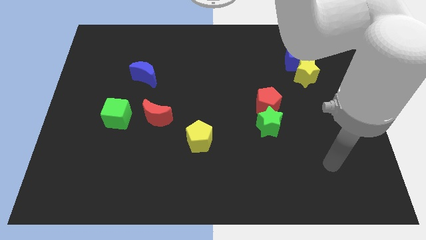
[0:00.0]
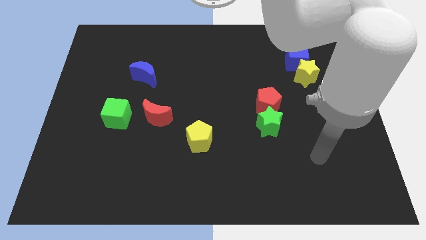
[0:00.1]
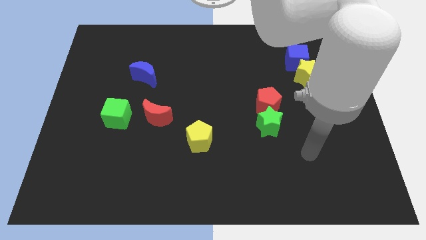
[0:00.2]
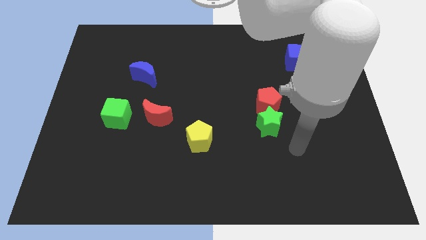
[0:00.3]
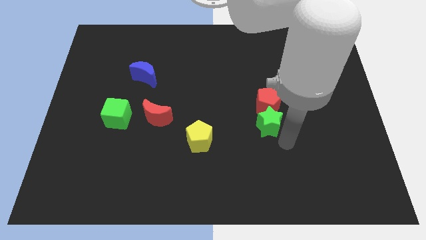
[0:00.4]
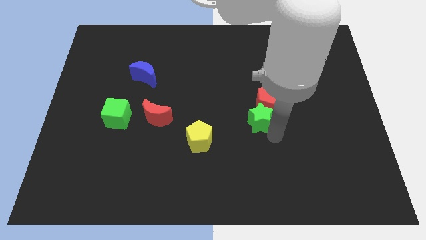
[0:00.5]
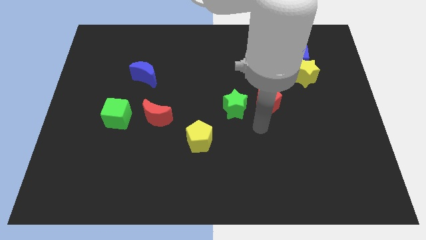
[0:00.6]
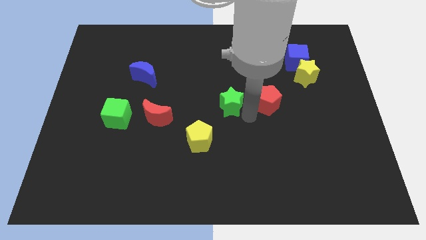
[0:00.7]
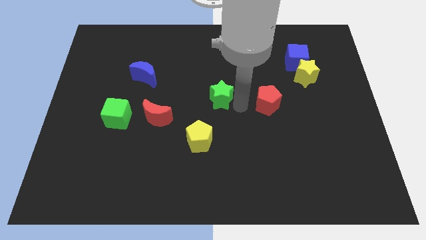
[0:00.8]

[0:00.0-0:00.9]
separate the red pentagon from the green star

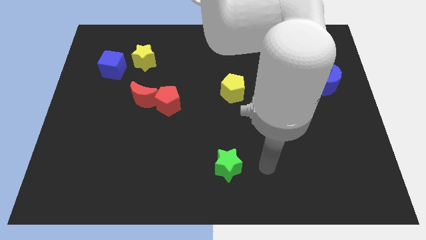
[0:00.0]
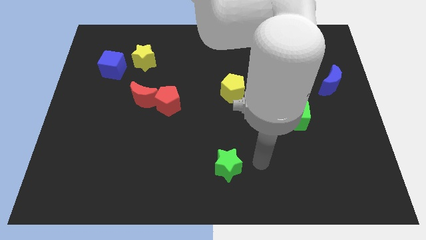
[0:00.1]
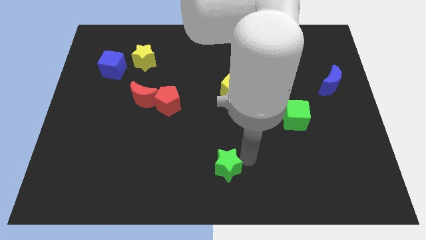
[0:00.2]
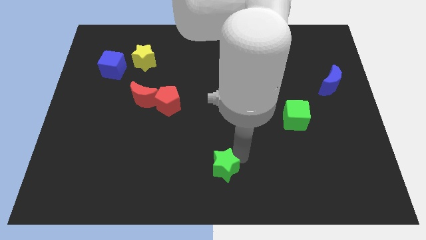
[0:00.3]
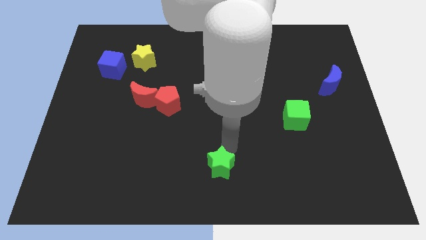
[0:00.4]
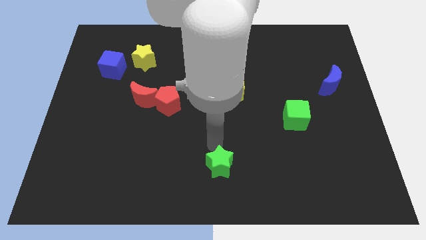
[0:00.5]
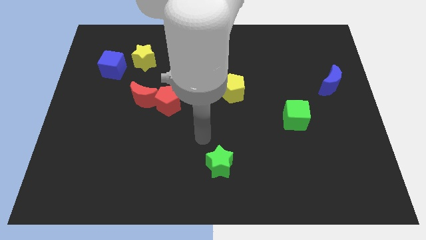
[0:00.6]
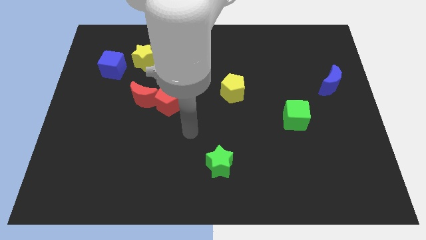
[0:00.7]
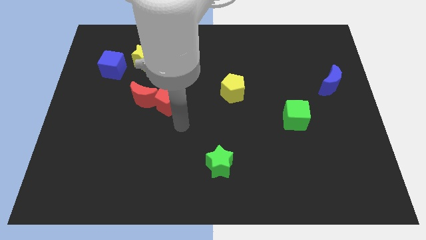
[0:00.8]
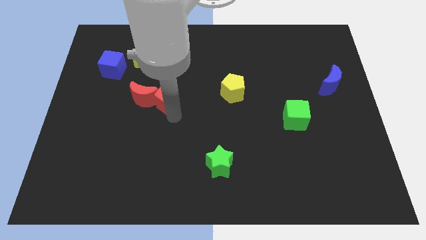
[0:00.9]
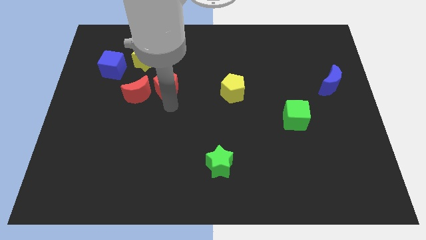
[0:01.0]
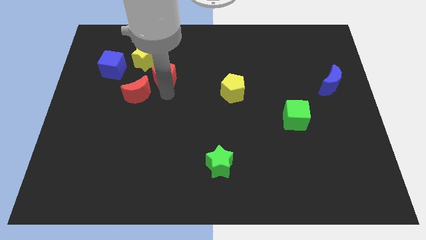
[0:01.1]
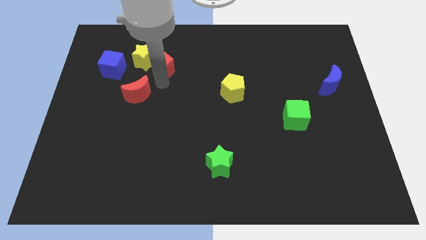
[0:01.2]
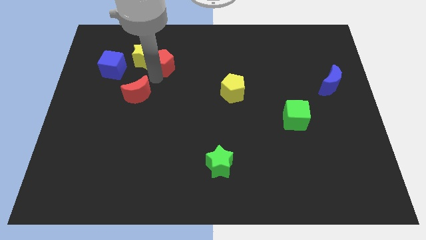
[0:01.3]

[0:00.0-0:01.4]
pull the red moon apart from the red pentagon

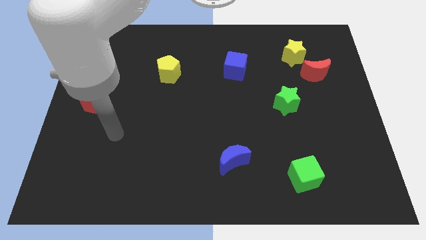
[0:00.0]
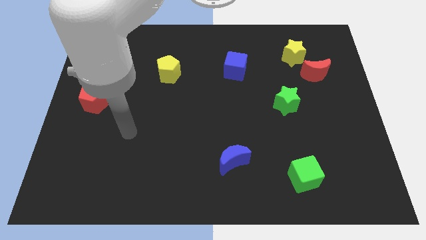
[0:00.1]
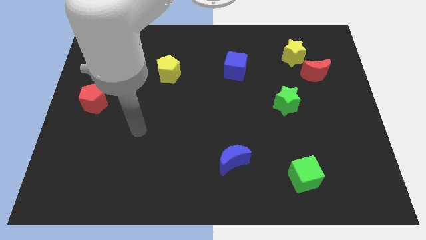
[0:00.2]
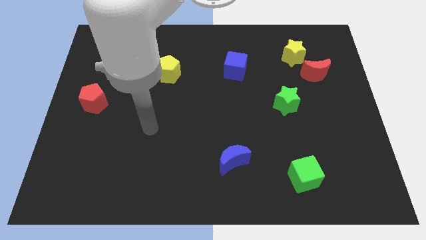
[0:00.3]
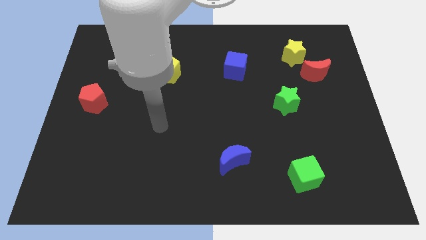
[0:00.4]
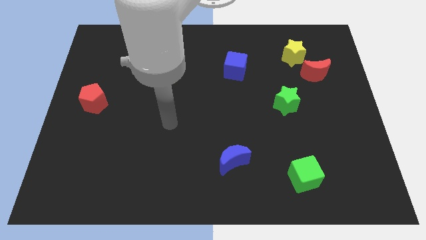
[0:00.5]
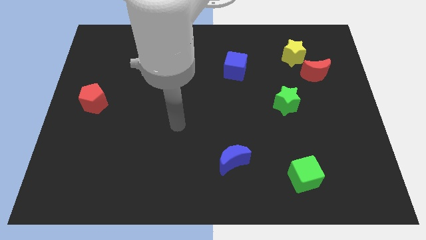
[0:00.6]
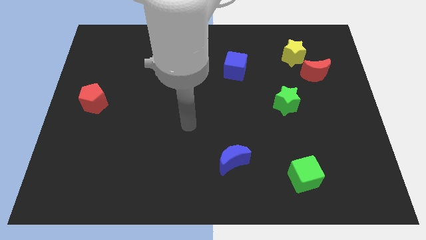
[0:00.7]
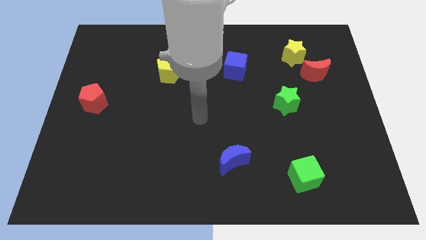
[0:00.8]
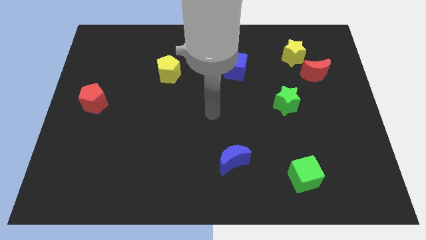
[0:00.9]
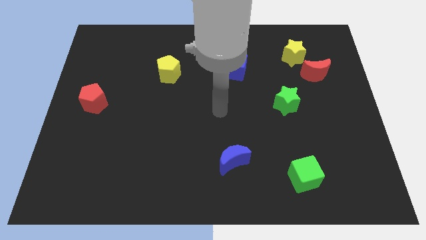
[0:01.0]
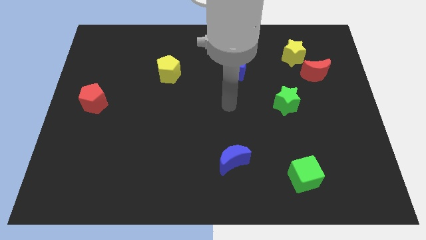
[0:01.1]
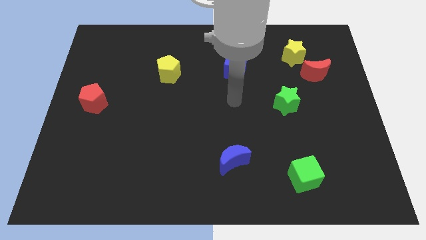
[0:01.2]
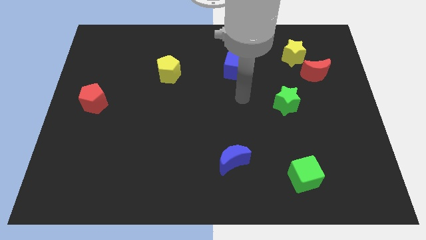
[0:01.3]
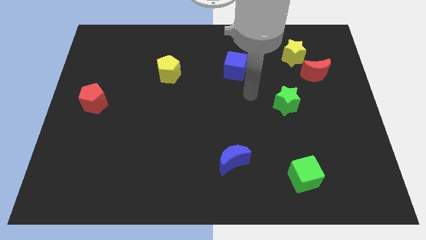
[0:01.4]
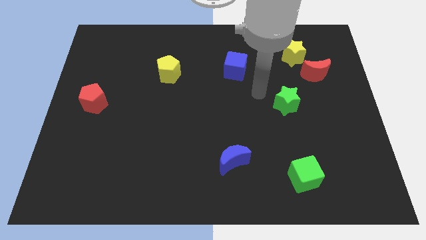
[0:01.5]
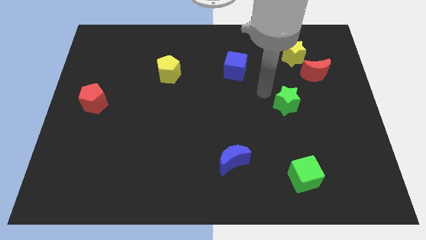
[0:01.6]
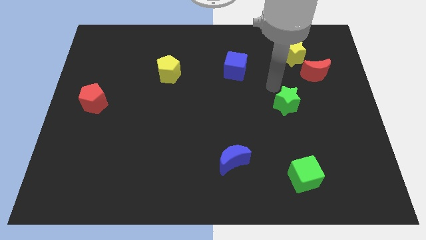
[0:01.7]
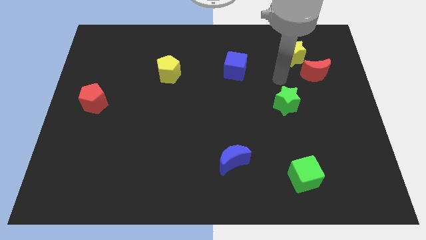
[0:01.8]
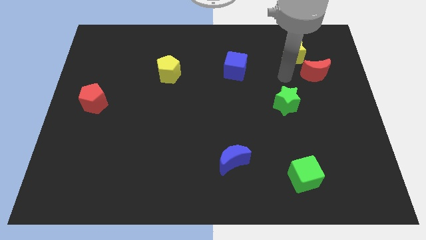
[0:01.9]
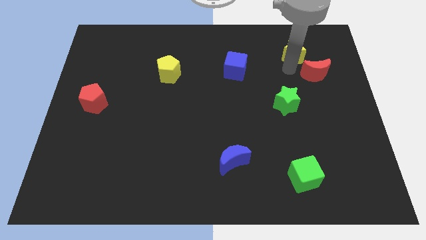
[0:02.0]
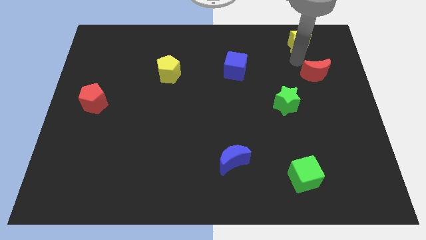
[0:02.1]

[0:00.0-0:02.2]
pull the red moon apart from the yellow star

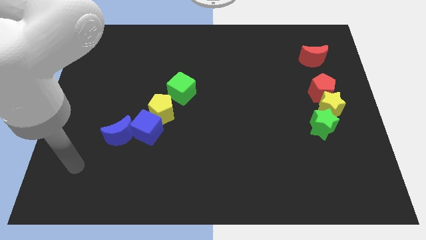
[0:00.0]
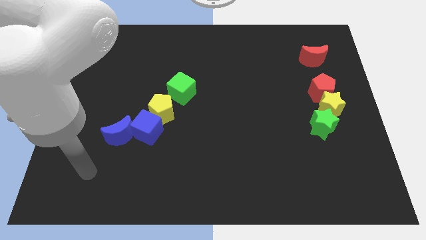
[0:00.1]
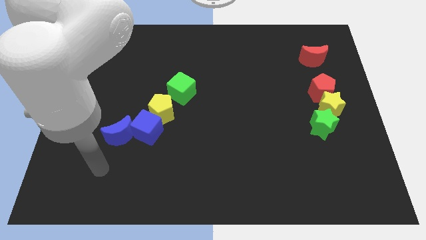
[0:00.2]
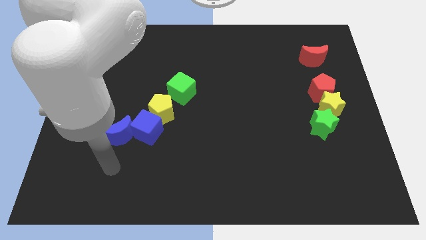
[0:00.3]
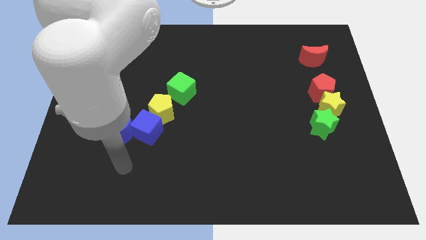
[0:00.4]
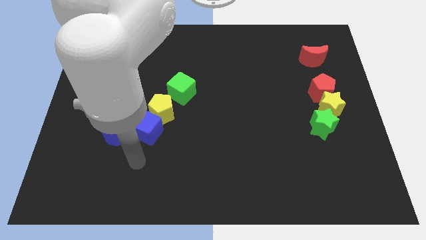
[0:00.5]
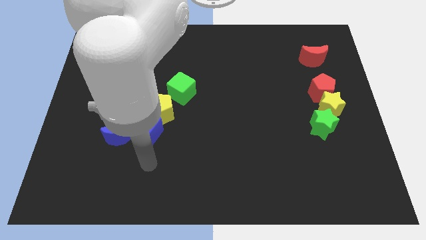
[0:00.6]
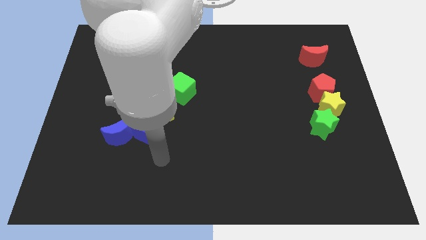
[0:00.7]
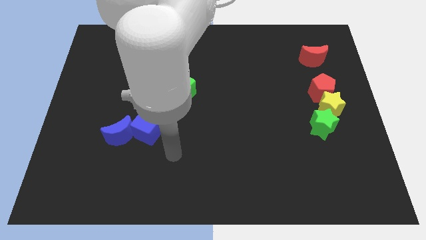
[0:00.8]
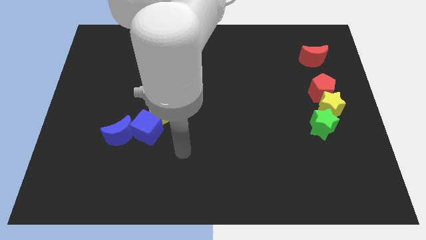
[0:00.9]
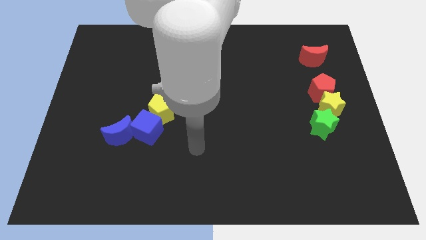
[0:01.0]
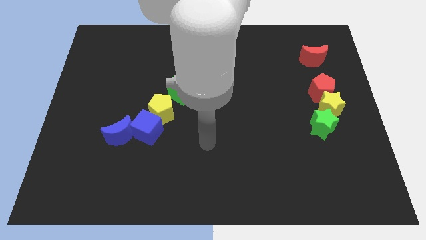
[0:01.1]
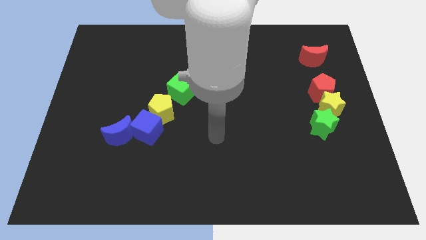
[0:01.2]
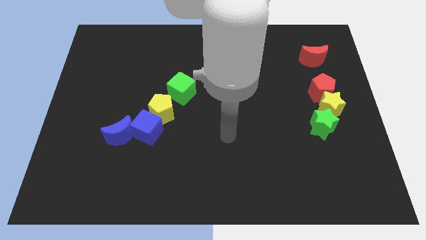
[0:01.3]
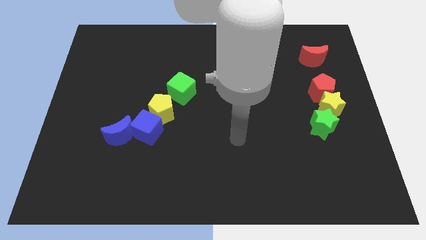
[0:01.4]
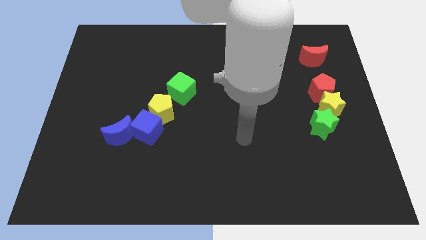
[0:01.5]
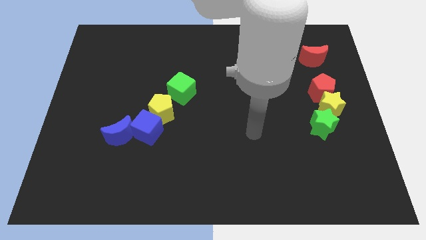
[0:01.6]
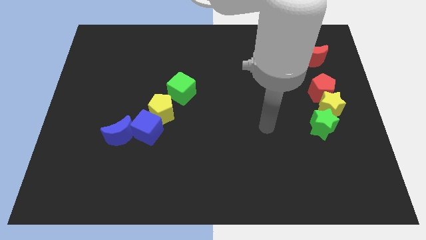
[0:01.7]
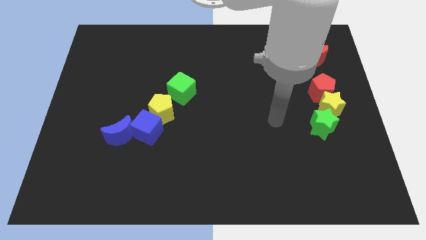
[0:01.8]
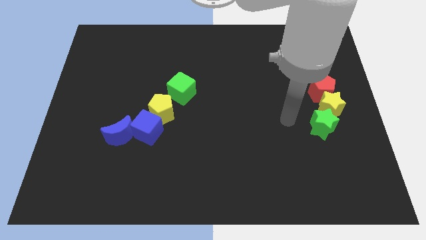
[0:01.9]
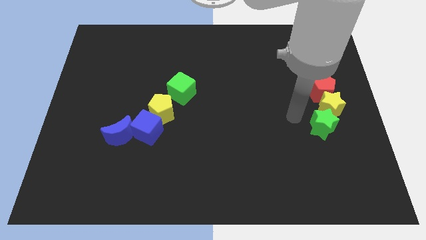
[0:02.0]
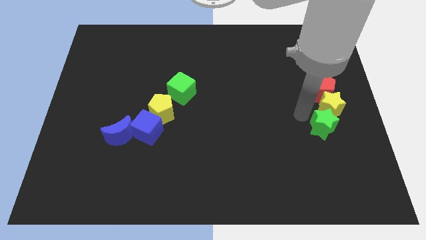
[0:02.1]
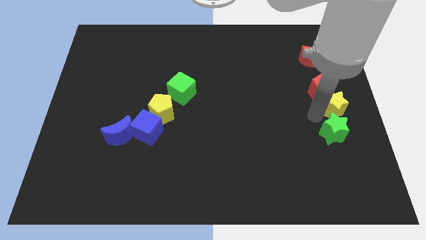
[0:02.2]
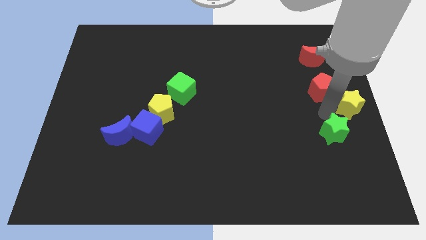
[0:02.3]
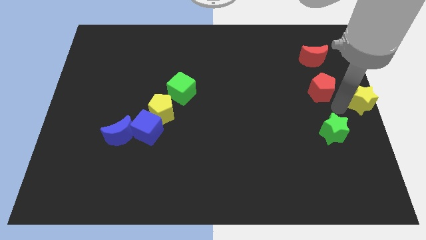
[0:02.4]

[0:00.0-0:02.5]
separate the red pentagon from the yellow star

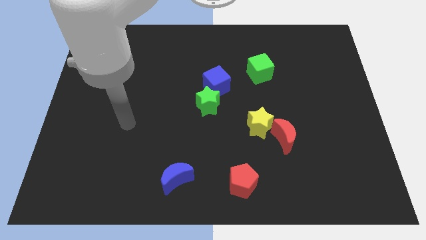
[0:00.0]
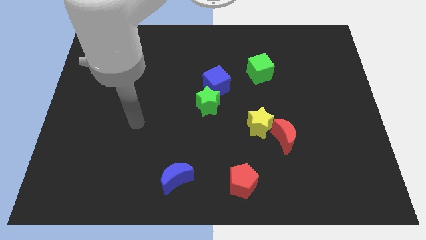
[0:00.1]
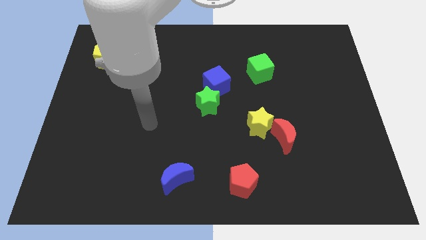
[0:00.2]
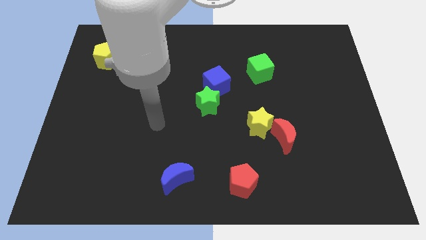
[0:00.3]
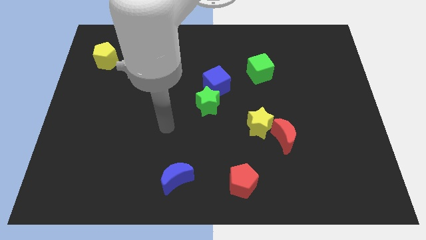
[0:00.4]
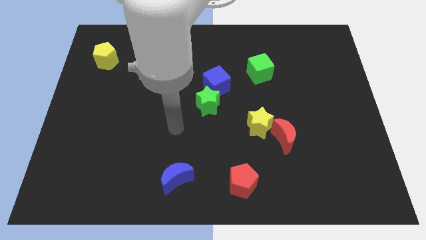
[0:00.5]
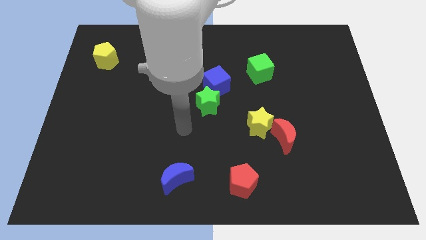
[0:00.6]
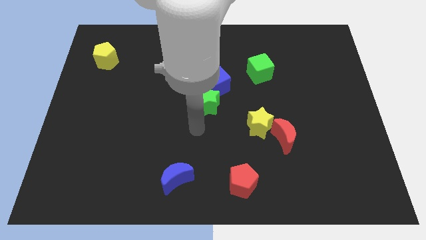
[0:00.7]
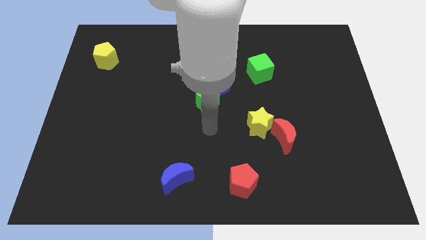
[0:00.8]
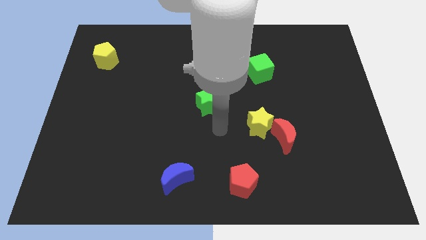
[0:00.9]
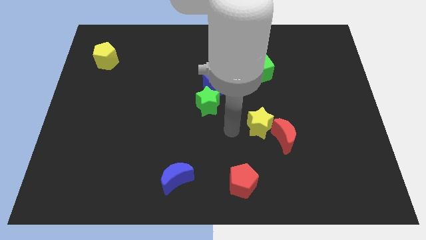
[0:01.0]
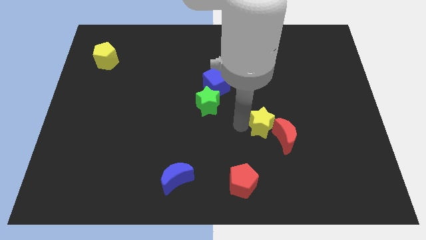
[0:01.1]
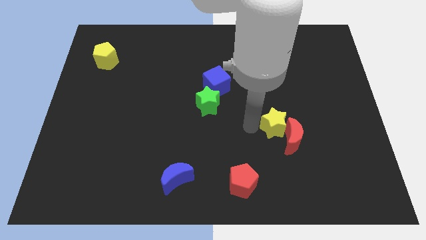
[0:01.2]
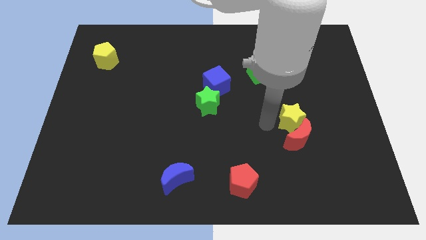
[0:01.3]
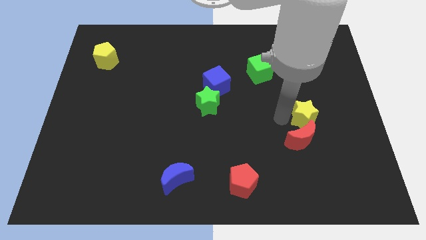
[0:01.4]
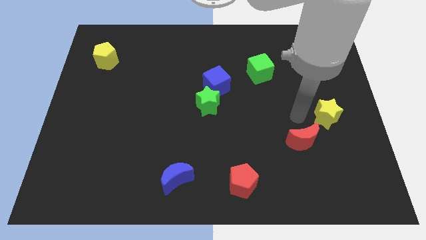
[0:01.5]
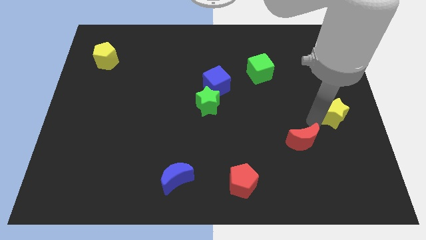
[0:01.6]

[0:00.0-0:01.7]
separate the red moon from the yellow star

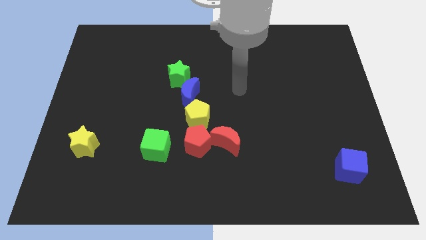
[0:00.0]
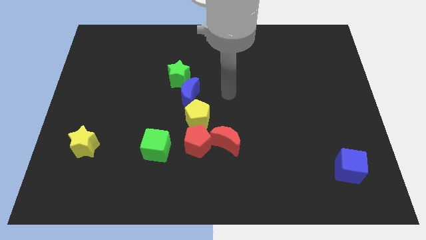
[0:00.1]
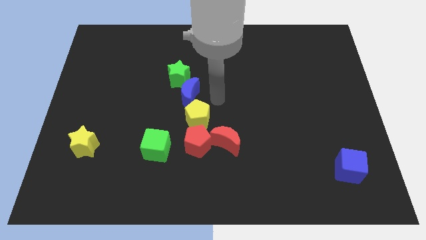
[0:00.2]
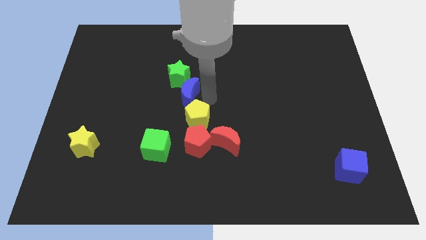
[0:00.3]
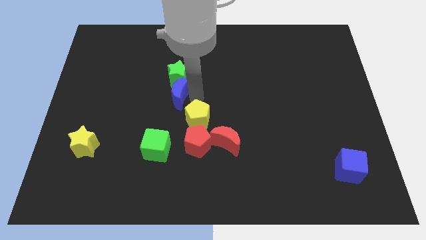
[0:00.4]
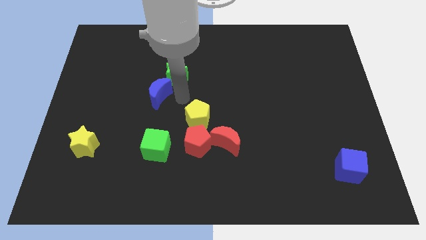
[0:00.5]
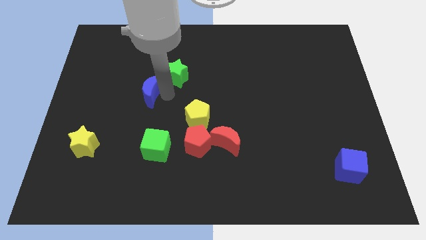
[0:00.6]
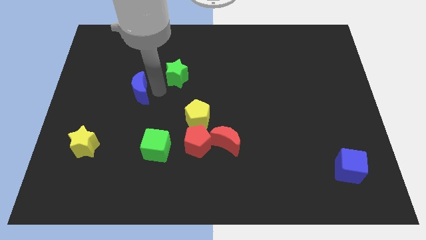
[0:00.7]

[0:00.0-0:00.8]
move the green star away from the blue moon

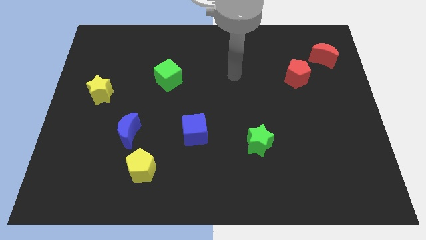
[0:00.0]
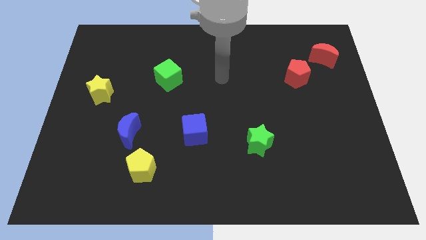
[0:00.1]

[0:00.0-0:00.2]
move the blue moon away from the yellow pentagon
